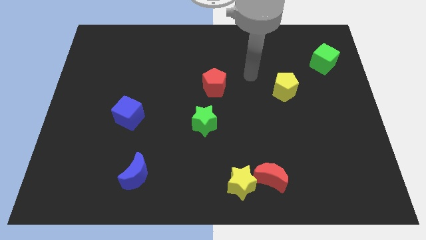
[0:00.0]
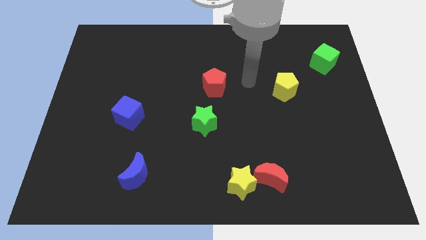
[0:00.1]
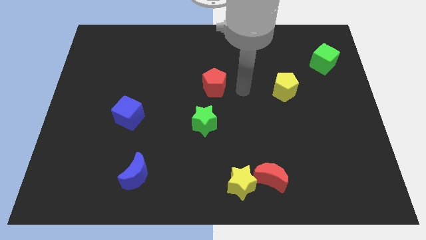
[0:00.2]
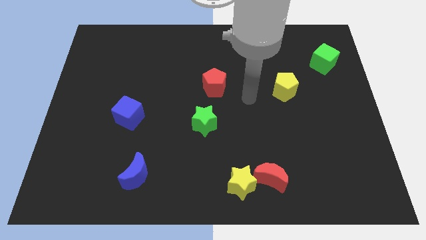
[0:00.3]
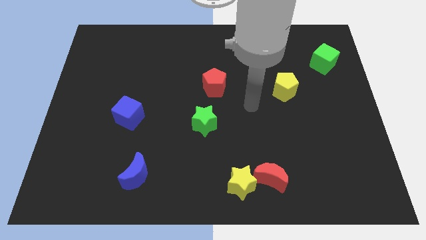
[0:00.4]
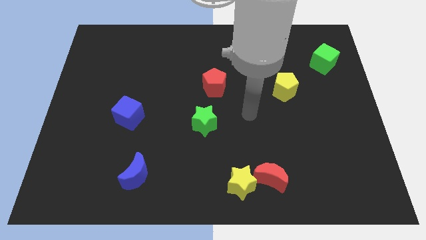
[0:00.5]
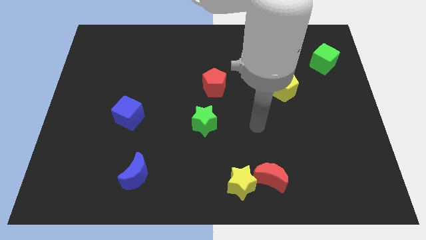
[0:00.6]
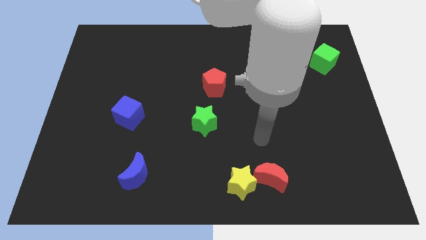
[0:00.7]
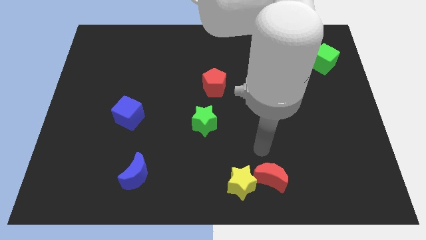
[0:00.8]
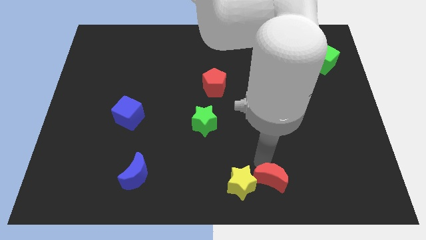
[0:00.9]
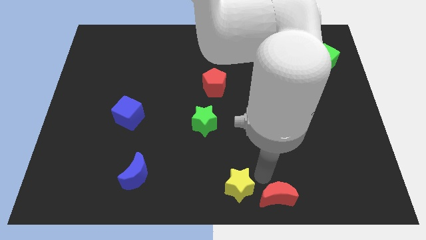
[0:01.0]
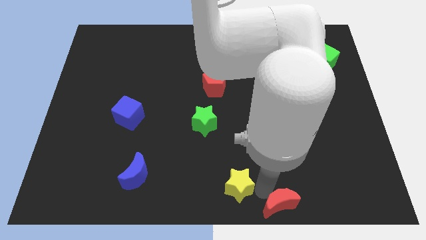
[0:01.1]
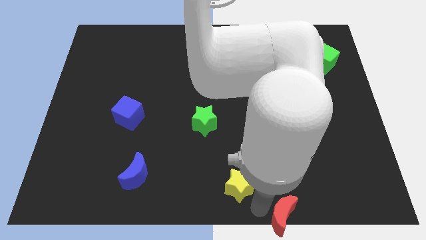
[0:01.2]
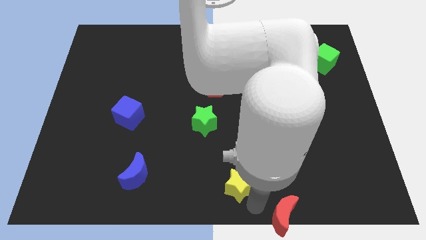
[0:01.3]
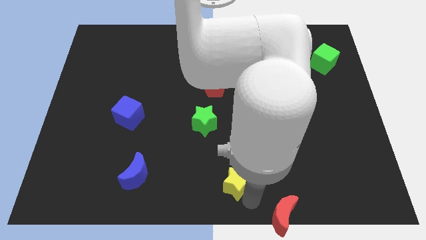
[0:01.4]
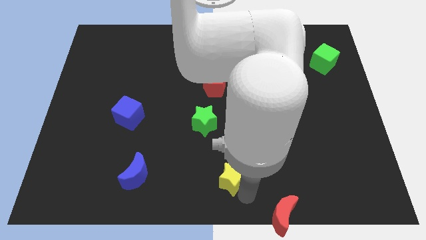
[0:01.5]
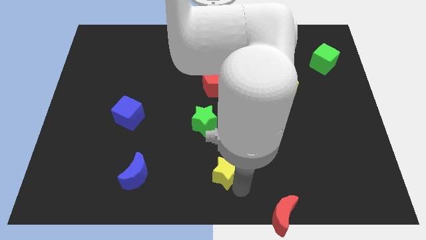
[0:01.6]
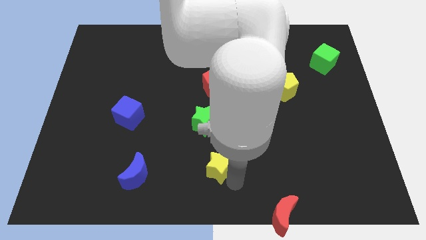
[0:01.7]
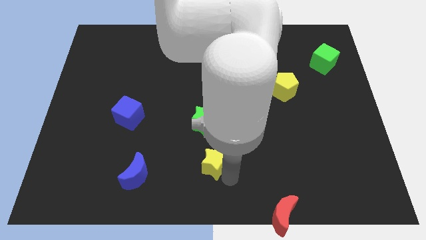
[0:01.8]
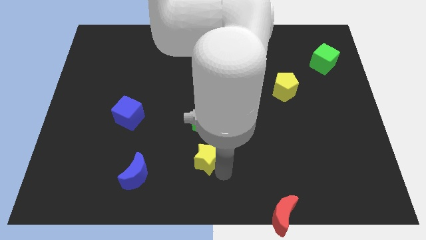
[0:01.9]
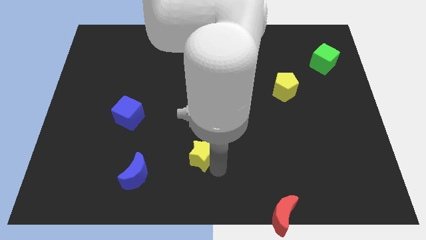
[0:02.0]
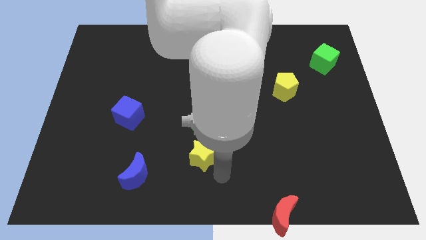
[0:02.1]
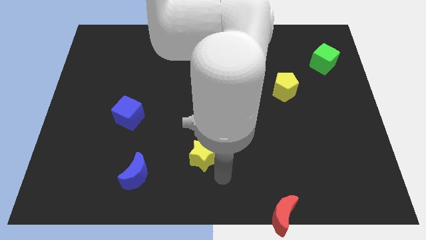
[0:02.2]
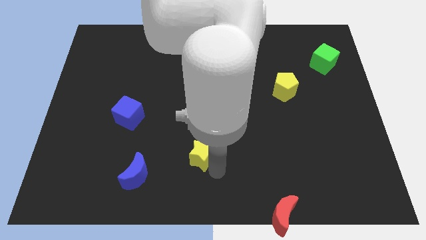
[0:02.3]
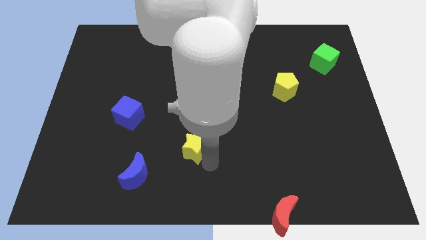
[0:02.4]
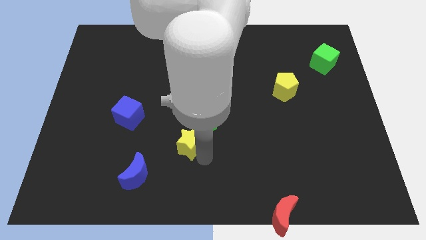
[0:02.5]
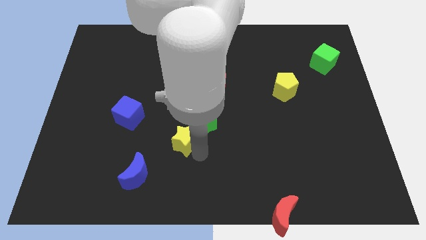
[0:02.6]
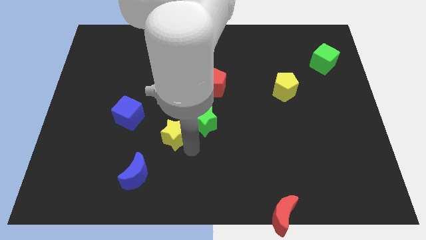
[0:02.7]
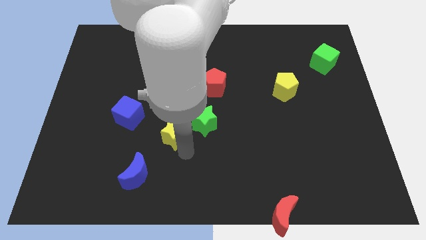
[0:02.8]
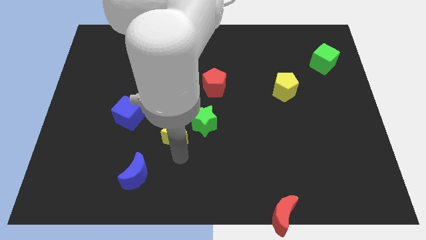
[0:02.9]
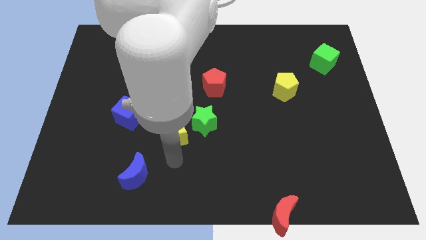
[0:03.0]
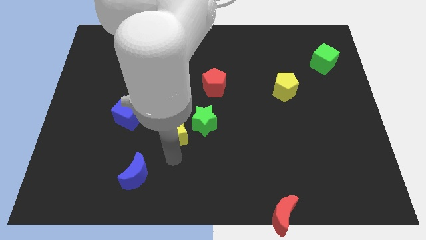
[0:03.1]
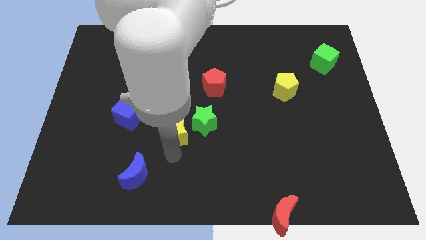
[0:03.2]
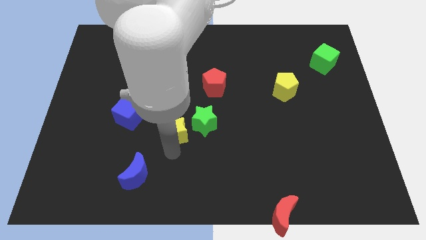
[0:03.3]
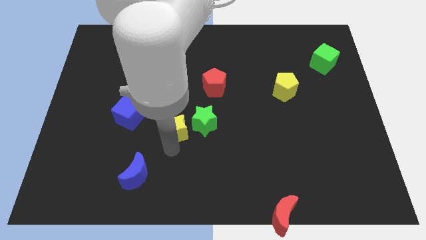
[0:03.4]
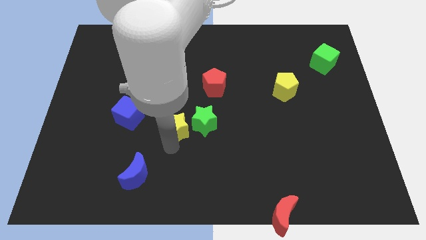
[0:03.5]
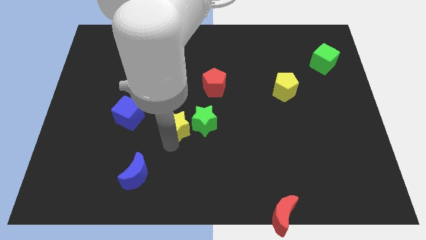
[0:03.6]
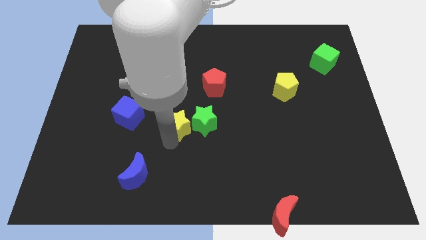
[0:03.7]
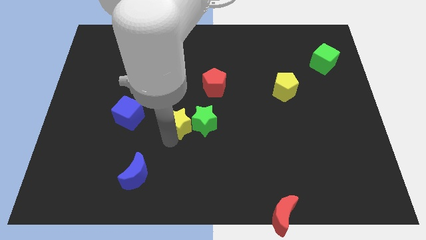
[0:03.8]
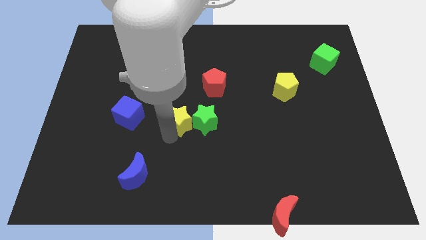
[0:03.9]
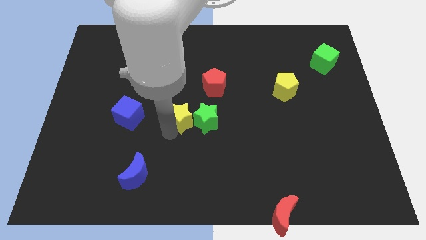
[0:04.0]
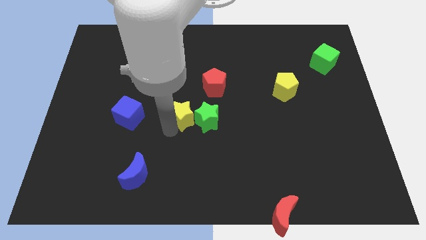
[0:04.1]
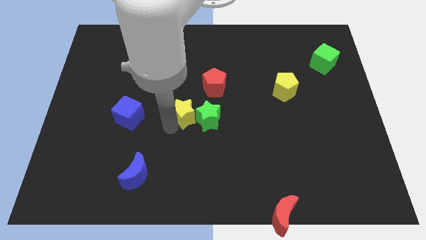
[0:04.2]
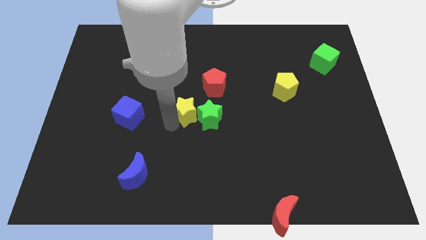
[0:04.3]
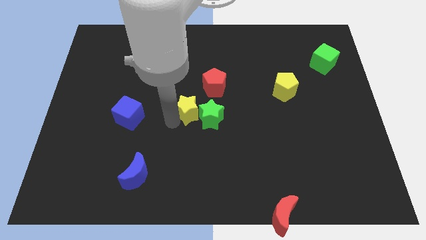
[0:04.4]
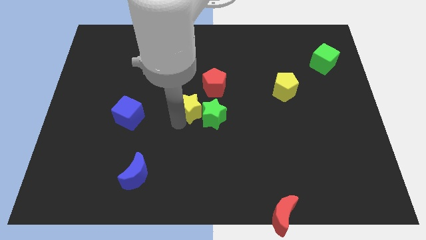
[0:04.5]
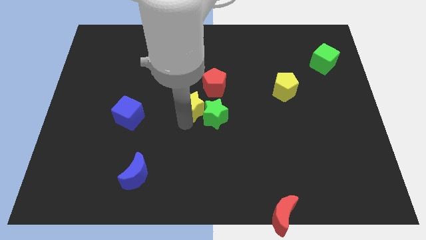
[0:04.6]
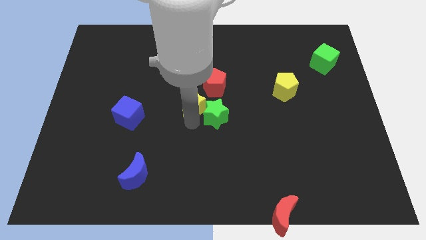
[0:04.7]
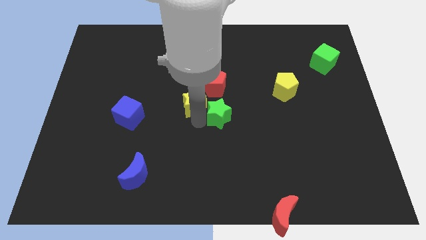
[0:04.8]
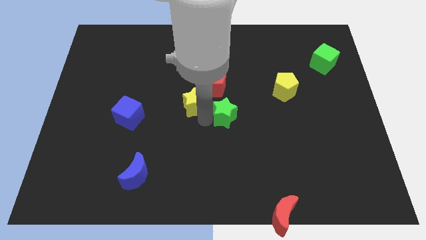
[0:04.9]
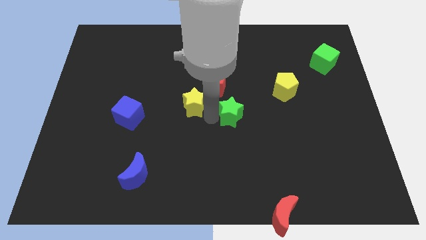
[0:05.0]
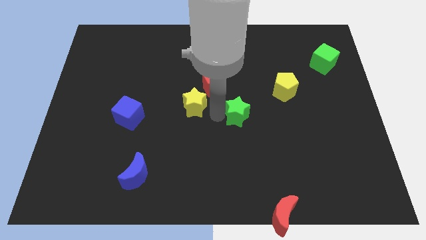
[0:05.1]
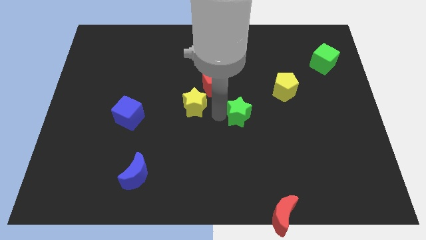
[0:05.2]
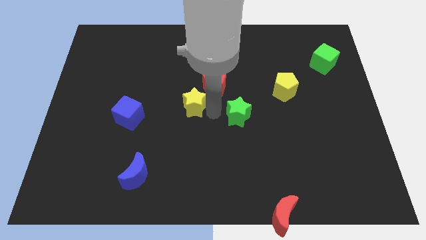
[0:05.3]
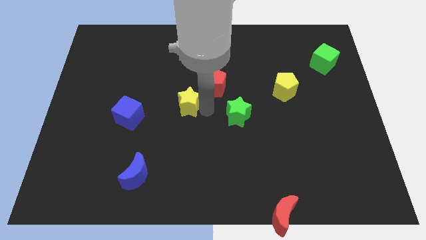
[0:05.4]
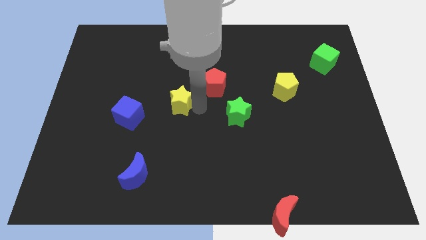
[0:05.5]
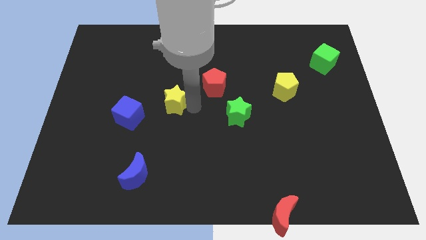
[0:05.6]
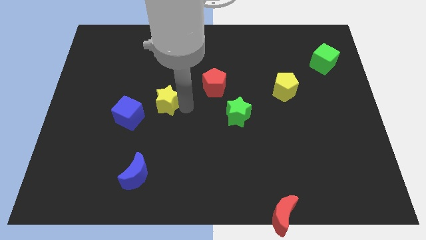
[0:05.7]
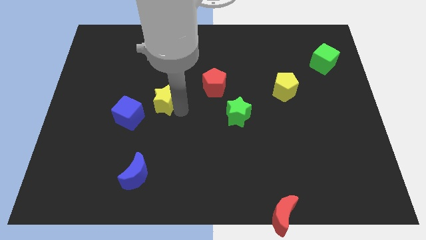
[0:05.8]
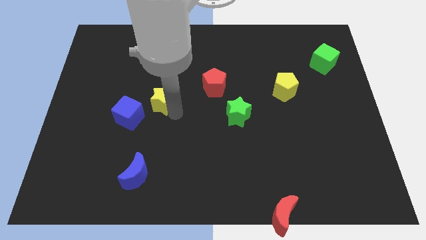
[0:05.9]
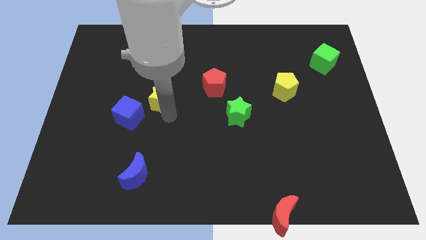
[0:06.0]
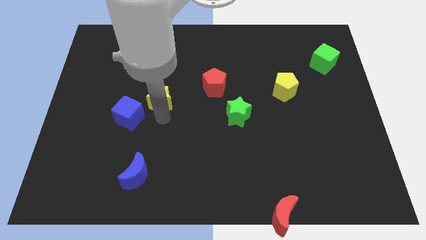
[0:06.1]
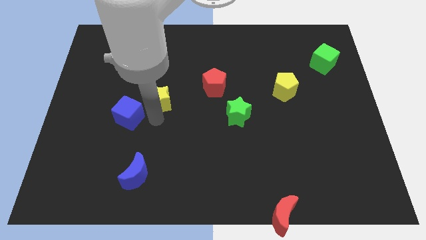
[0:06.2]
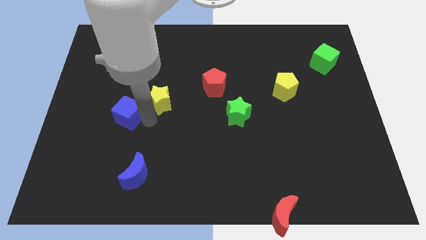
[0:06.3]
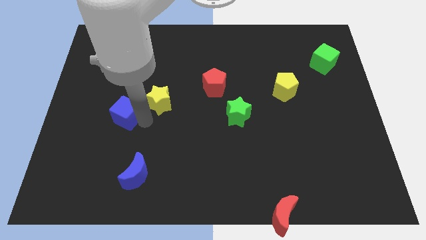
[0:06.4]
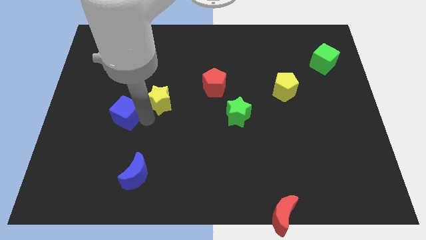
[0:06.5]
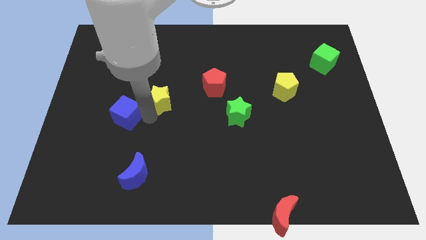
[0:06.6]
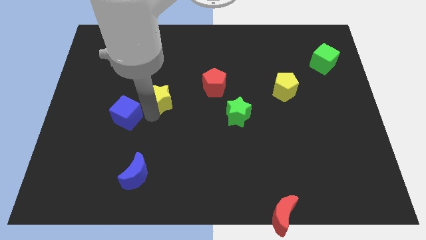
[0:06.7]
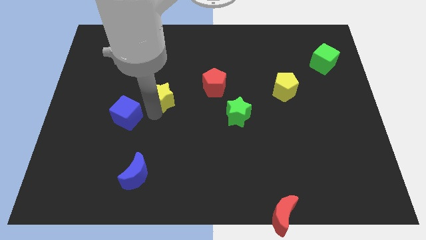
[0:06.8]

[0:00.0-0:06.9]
slide the yellow star left of the red pentagon

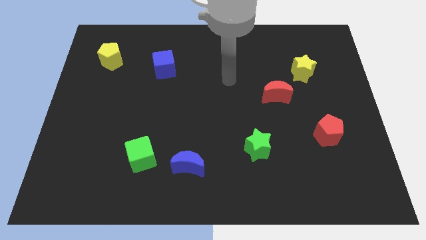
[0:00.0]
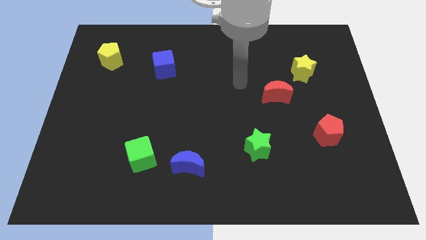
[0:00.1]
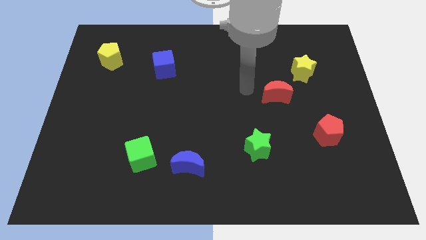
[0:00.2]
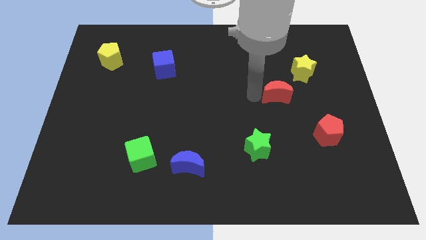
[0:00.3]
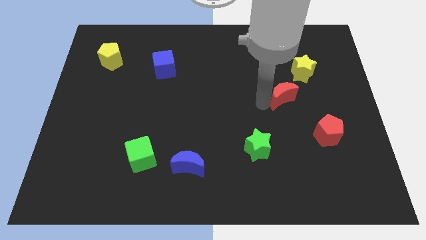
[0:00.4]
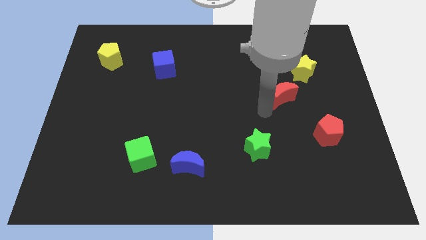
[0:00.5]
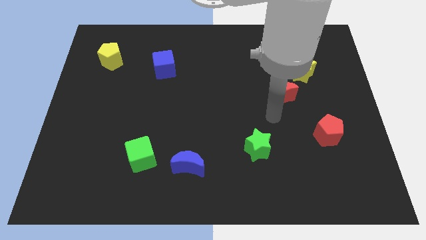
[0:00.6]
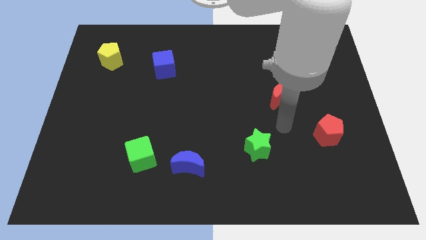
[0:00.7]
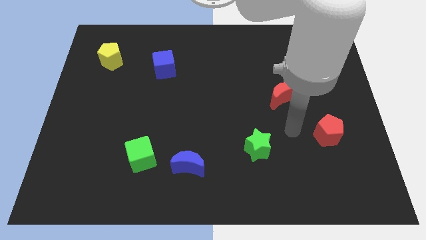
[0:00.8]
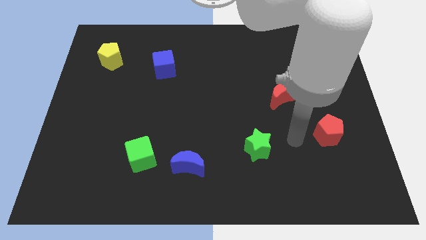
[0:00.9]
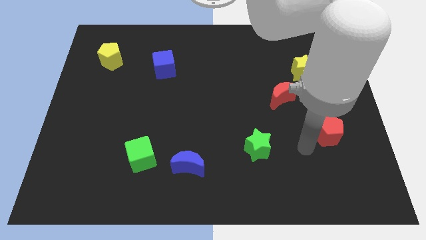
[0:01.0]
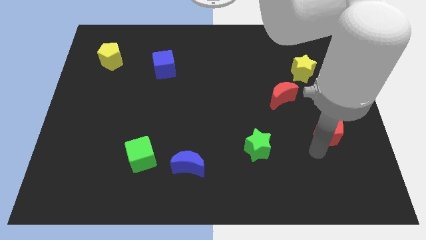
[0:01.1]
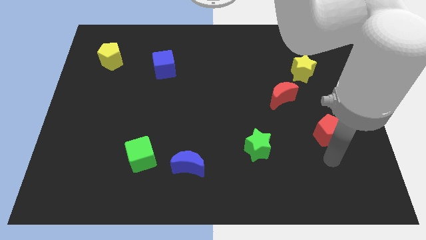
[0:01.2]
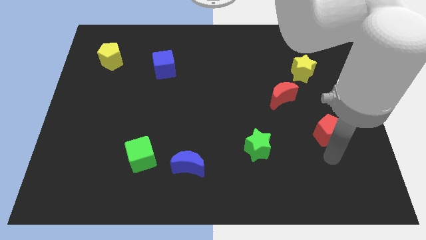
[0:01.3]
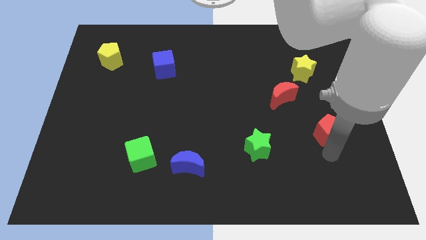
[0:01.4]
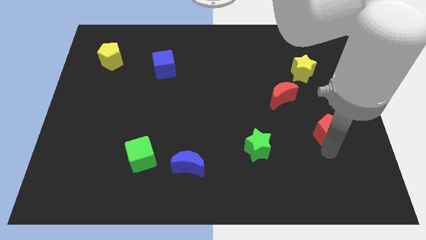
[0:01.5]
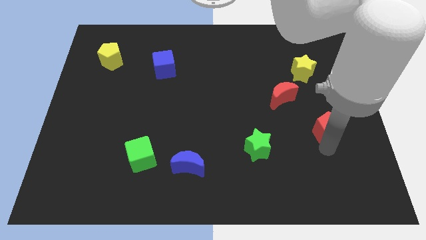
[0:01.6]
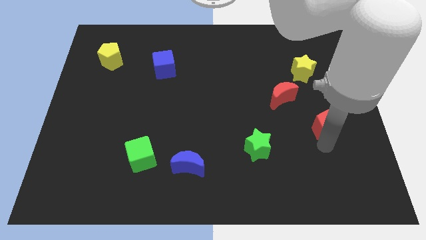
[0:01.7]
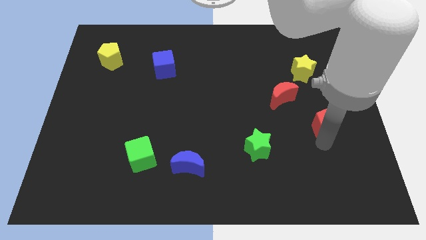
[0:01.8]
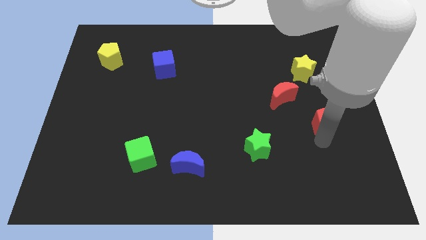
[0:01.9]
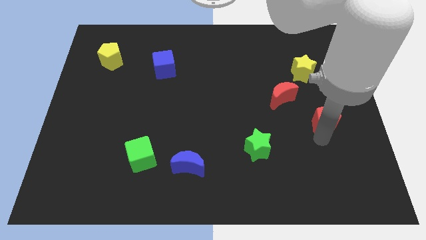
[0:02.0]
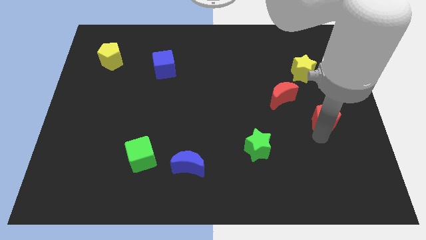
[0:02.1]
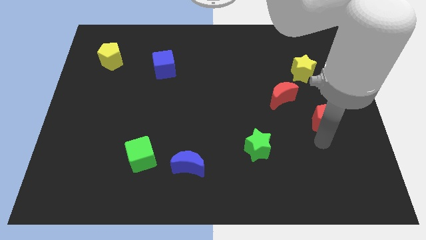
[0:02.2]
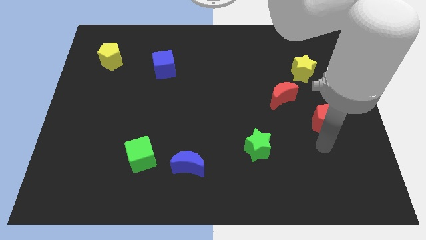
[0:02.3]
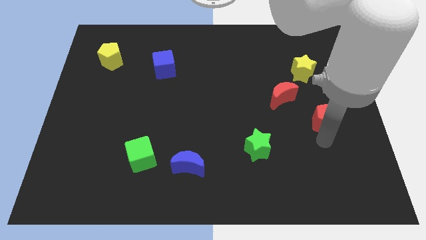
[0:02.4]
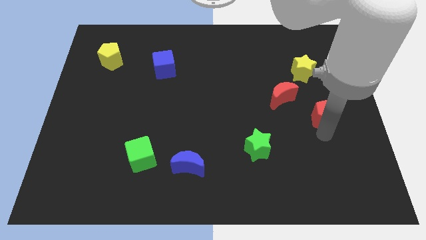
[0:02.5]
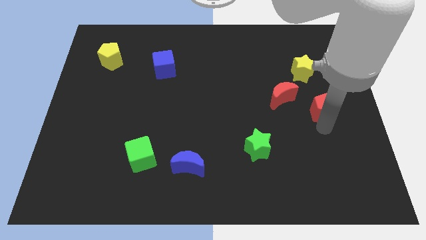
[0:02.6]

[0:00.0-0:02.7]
put the red pentagon right of the red moon
